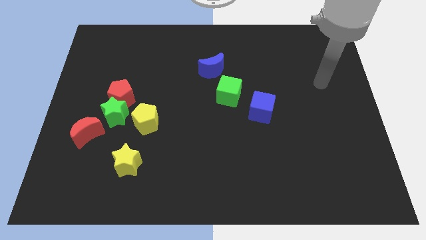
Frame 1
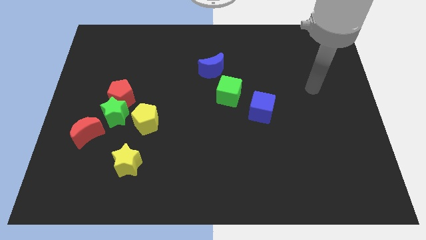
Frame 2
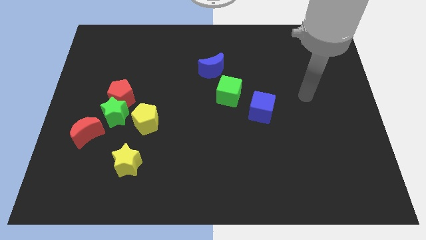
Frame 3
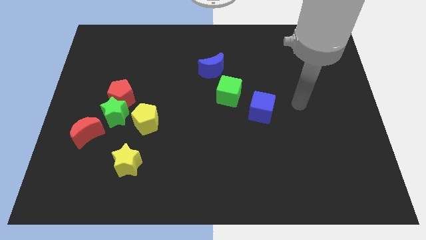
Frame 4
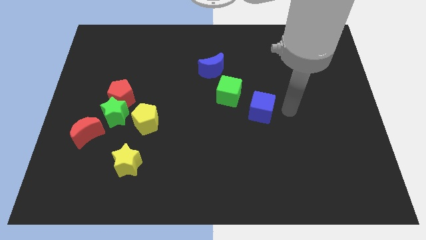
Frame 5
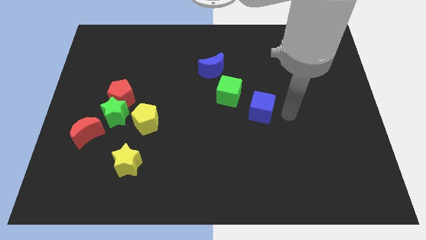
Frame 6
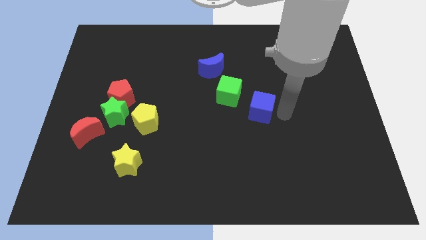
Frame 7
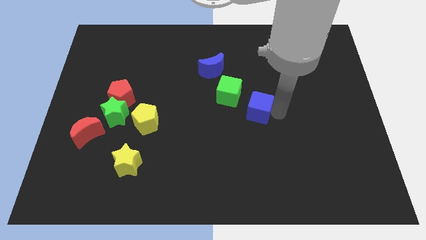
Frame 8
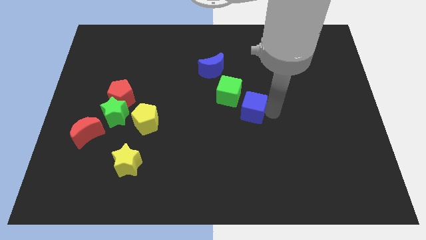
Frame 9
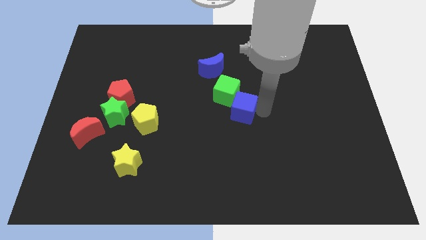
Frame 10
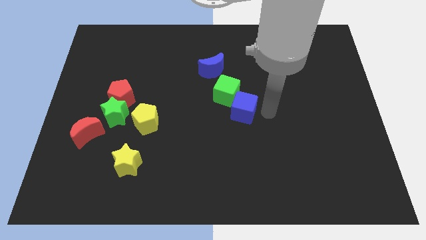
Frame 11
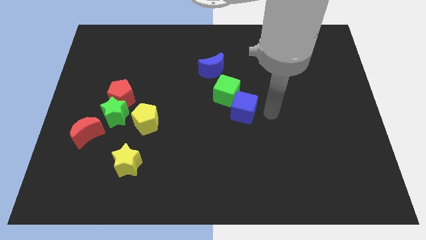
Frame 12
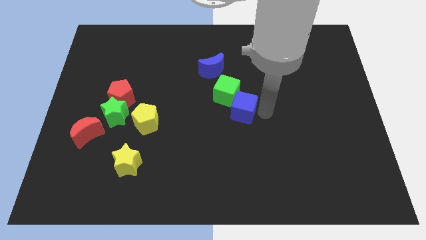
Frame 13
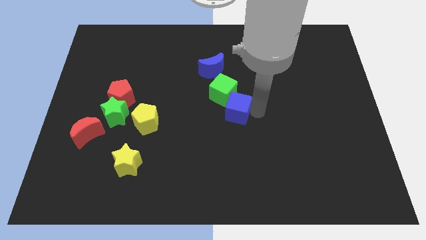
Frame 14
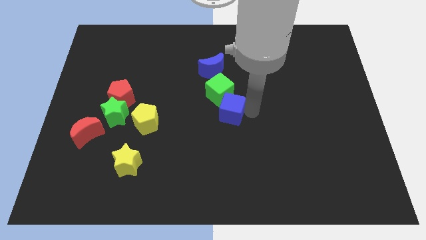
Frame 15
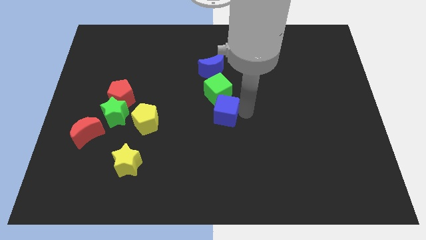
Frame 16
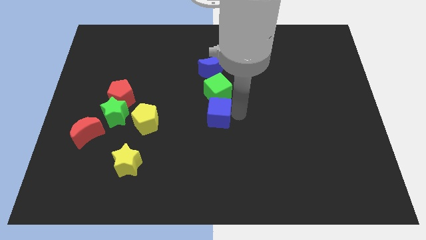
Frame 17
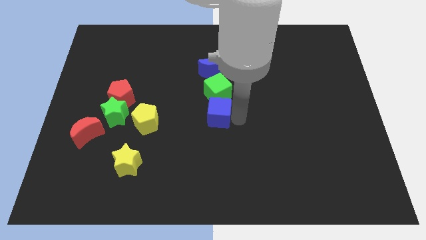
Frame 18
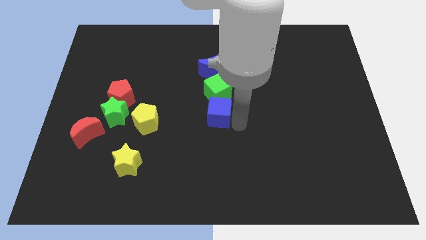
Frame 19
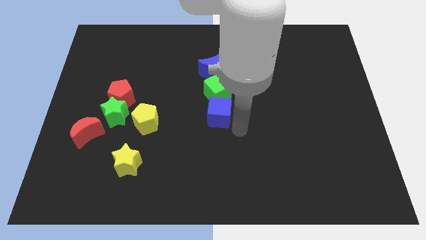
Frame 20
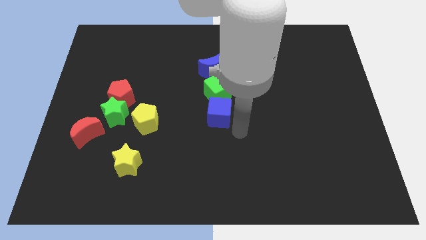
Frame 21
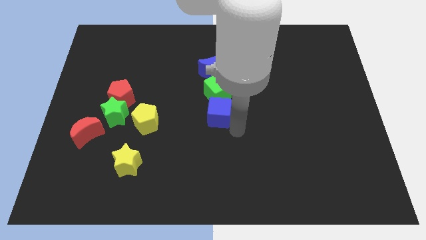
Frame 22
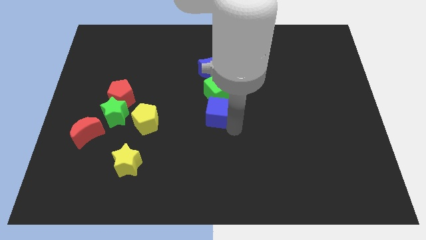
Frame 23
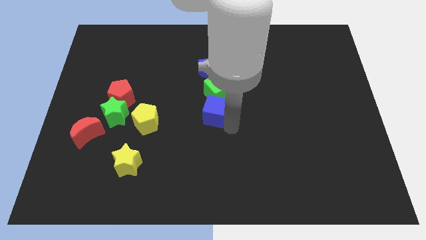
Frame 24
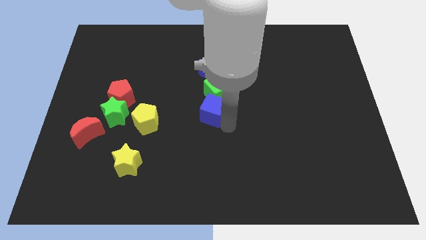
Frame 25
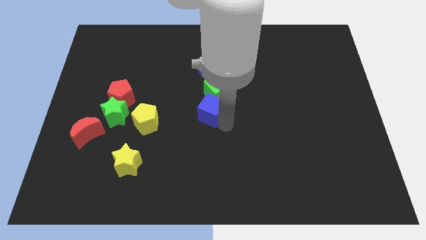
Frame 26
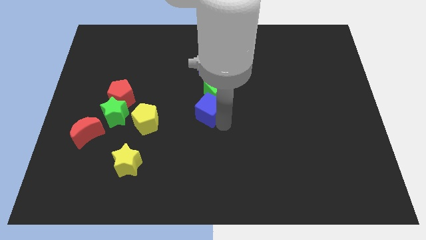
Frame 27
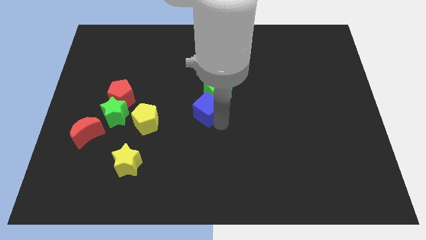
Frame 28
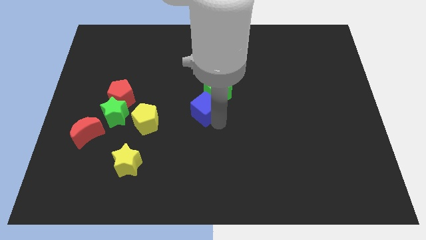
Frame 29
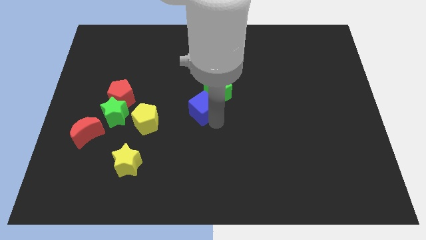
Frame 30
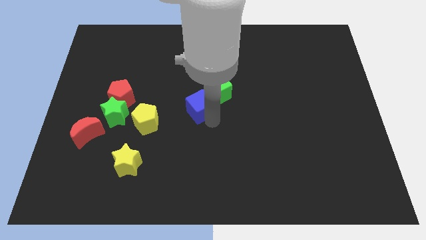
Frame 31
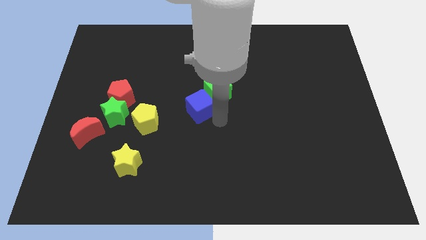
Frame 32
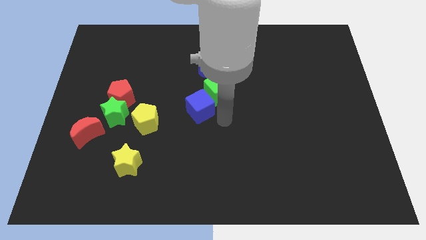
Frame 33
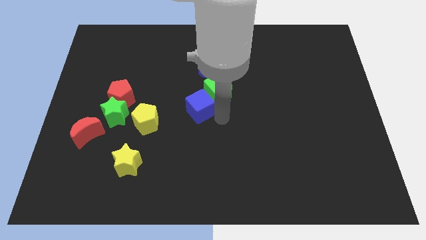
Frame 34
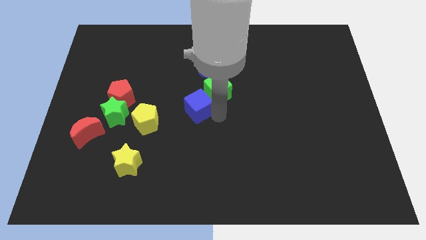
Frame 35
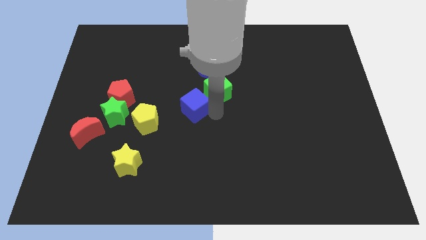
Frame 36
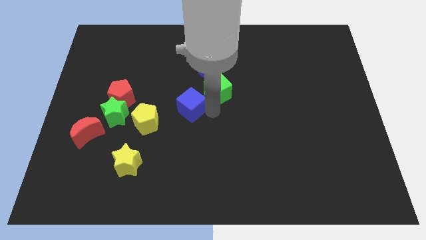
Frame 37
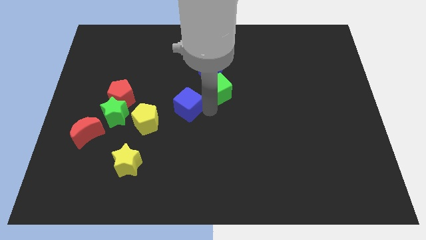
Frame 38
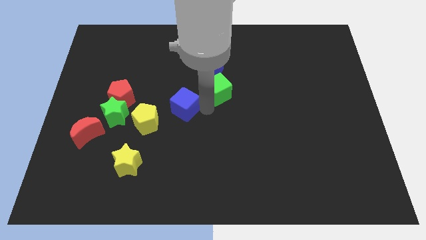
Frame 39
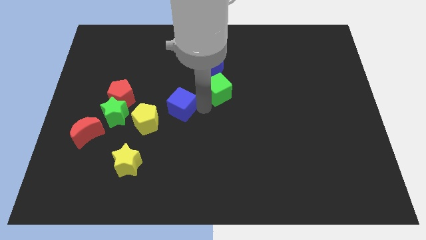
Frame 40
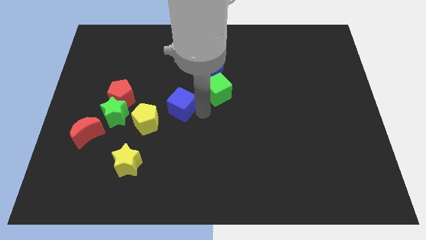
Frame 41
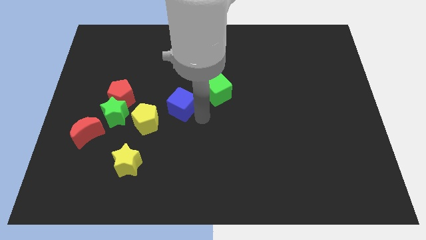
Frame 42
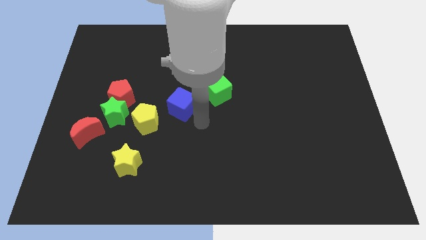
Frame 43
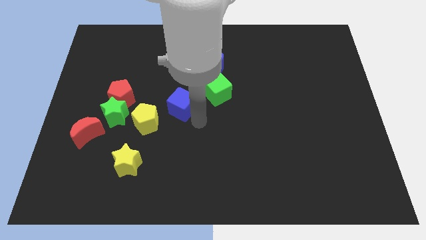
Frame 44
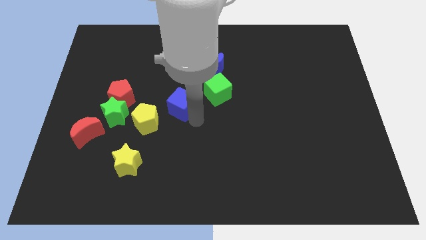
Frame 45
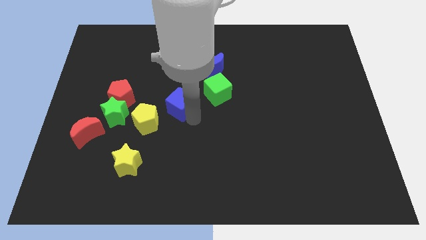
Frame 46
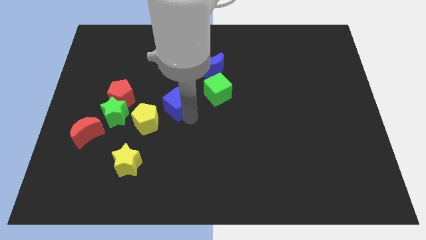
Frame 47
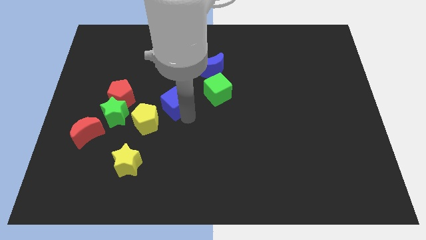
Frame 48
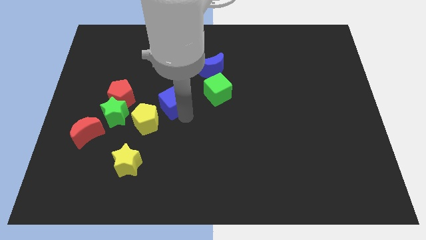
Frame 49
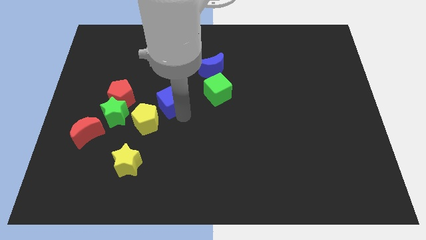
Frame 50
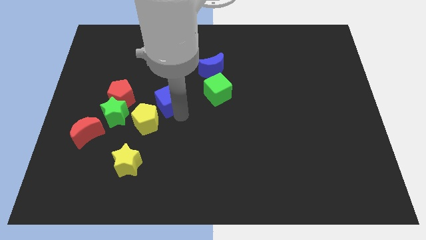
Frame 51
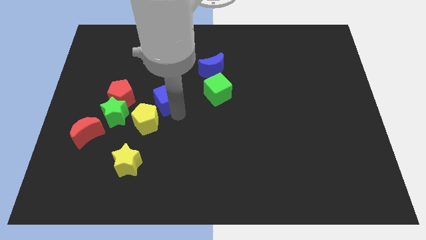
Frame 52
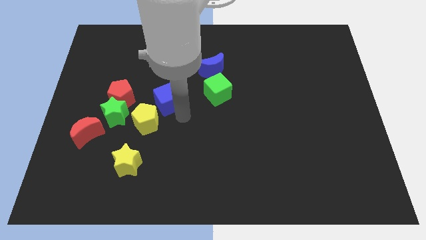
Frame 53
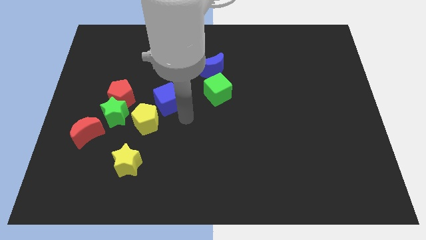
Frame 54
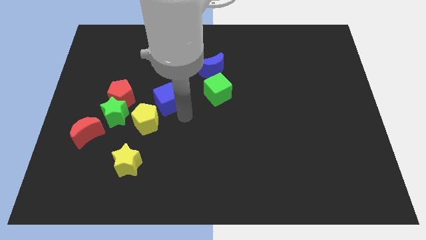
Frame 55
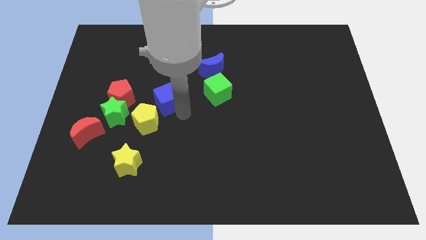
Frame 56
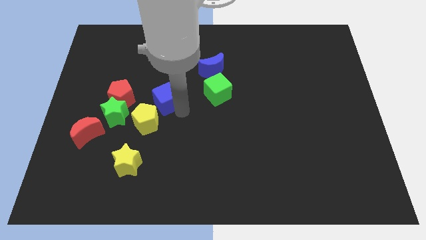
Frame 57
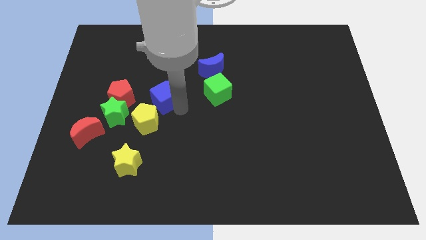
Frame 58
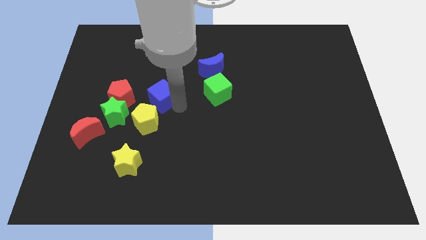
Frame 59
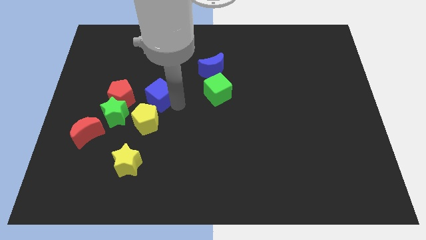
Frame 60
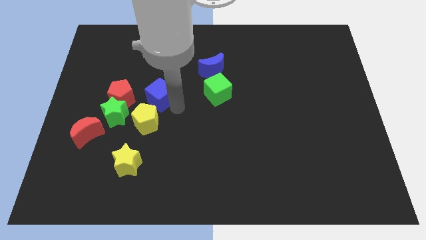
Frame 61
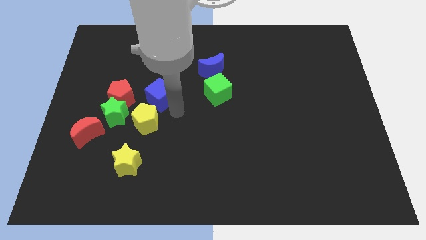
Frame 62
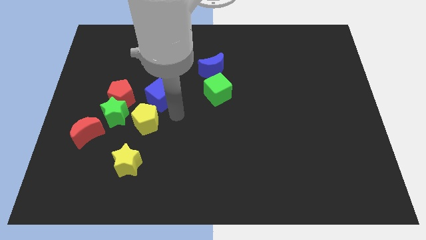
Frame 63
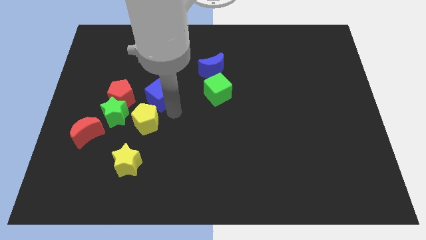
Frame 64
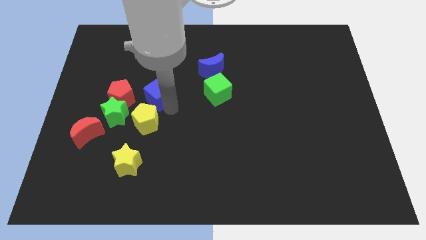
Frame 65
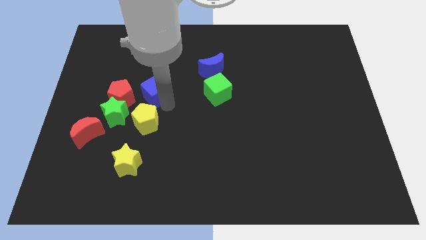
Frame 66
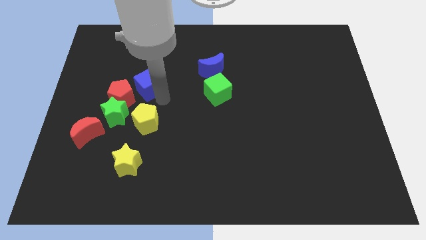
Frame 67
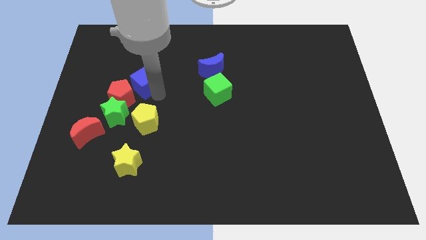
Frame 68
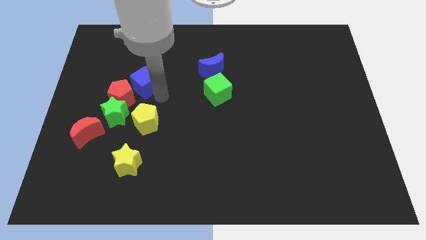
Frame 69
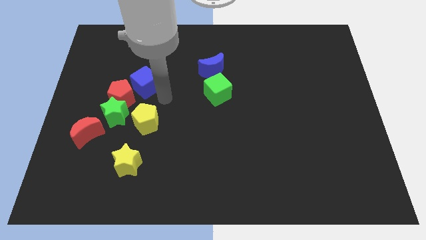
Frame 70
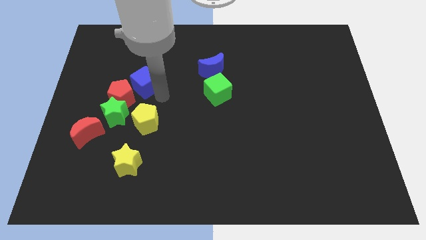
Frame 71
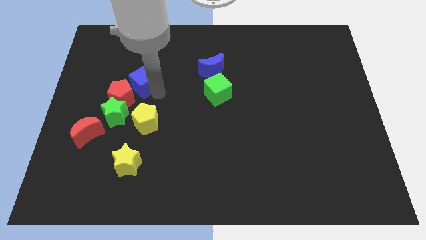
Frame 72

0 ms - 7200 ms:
put the blue cube above the red pentagon
